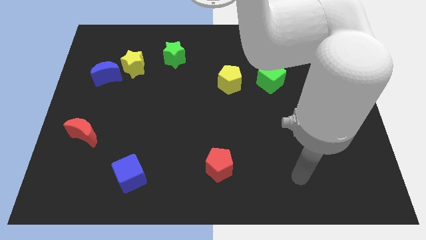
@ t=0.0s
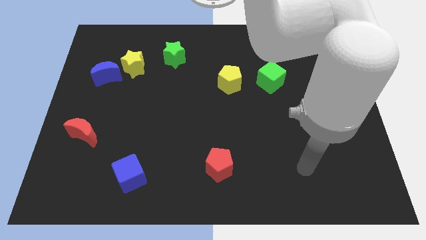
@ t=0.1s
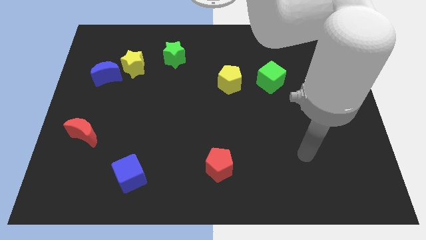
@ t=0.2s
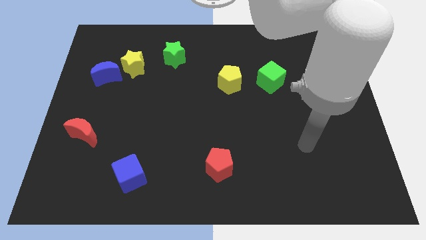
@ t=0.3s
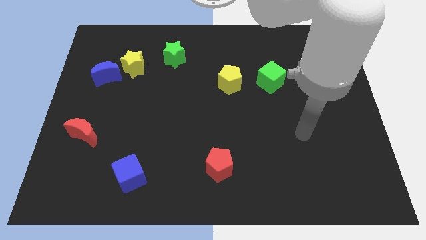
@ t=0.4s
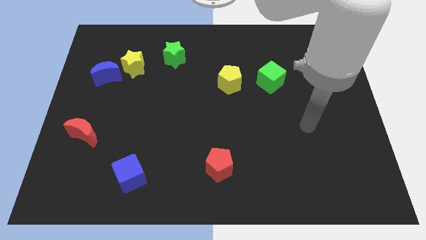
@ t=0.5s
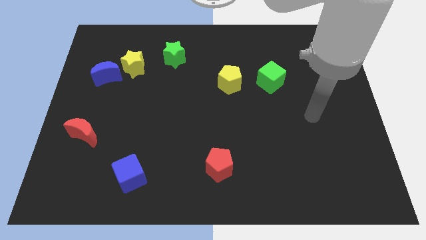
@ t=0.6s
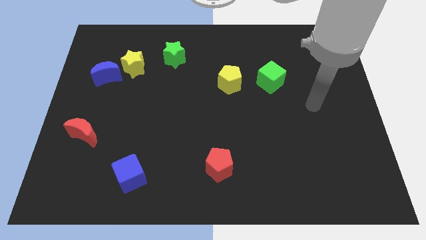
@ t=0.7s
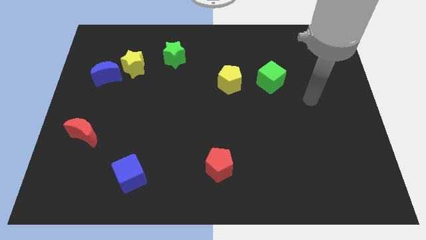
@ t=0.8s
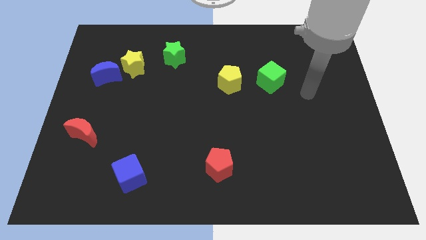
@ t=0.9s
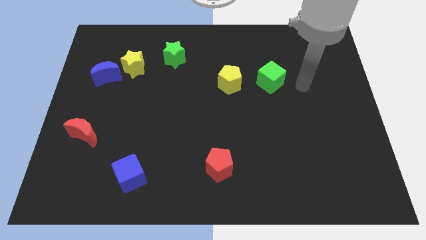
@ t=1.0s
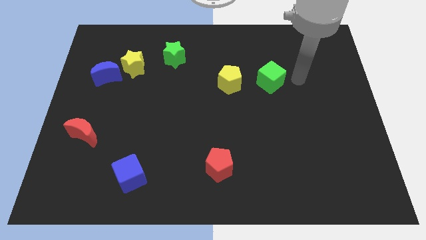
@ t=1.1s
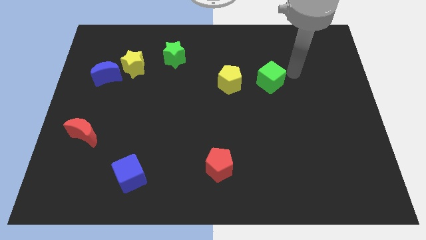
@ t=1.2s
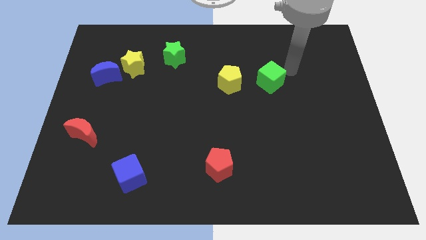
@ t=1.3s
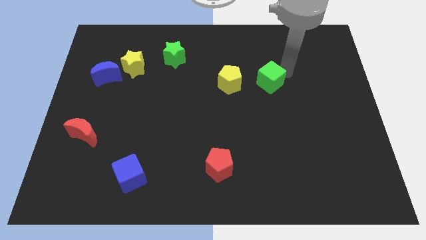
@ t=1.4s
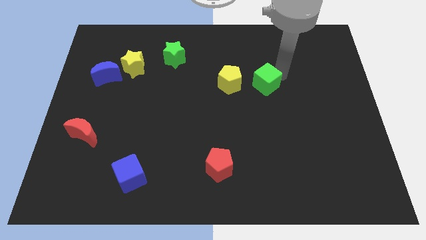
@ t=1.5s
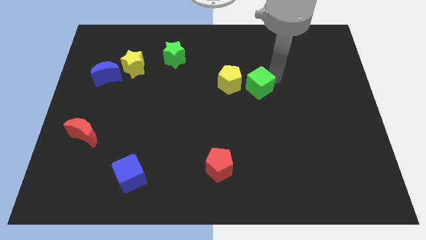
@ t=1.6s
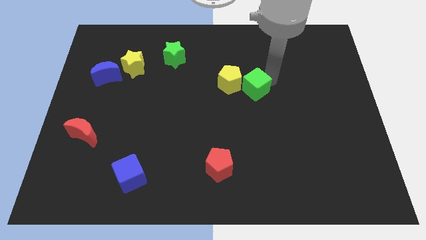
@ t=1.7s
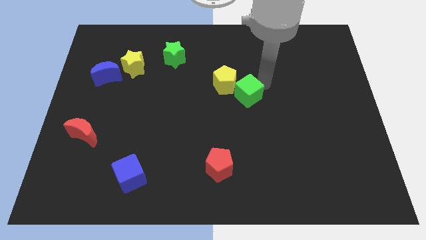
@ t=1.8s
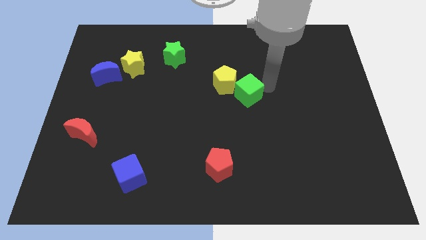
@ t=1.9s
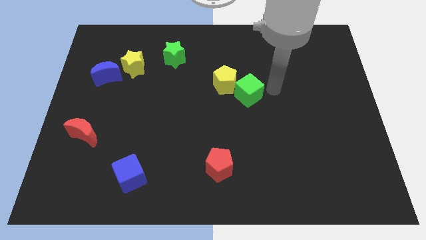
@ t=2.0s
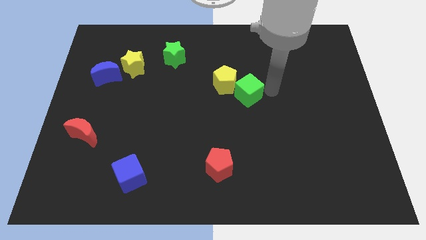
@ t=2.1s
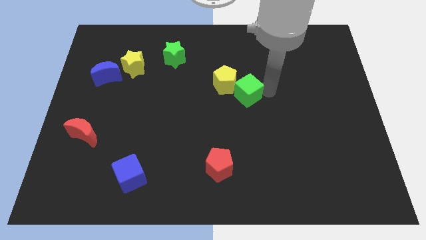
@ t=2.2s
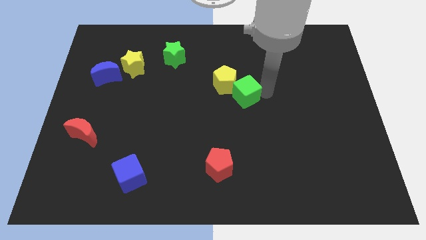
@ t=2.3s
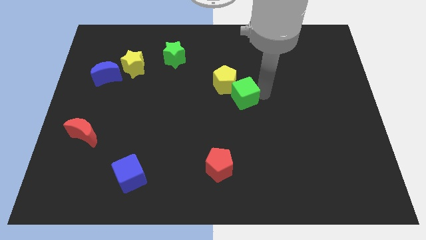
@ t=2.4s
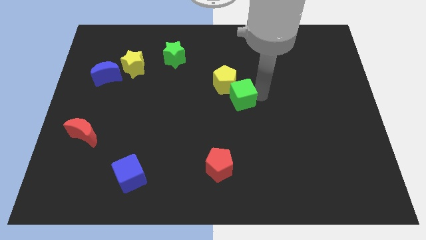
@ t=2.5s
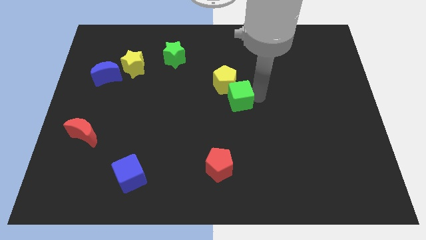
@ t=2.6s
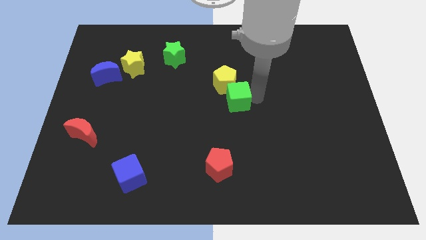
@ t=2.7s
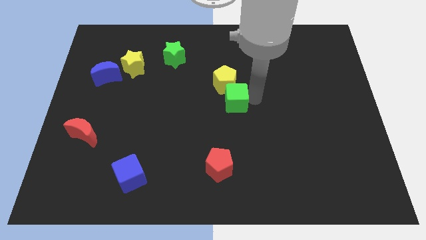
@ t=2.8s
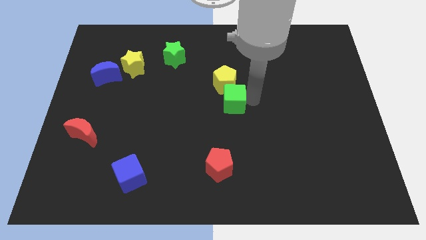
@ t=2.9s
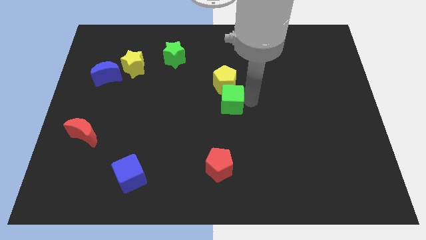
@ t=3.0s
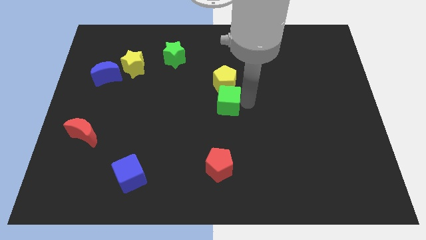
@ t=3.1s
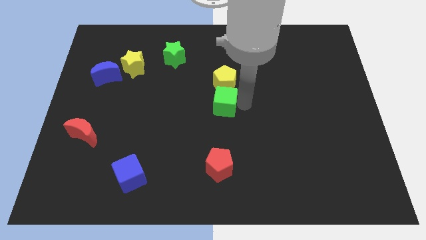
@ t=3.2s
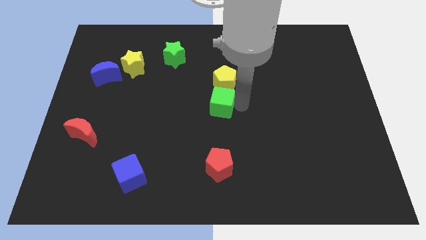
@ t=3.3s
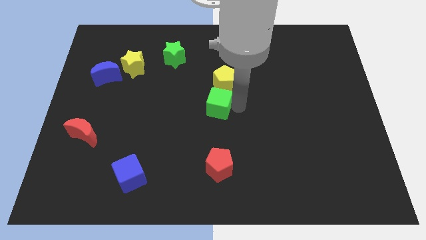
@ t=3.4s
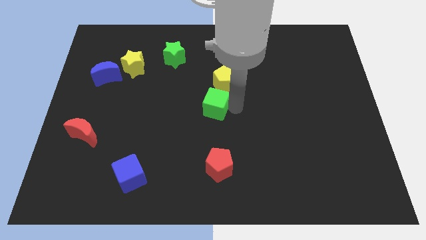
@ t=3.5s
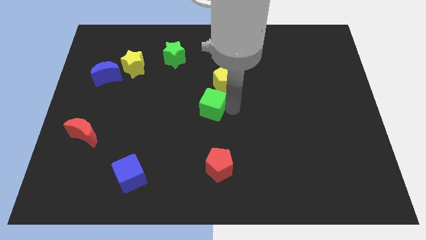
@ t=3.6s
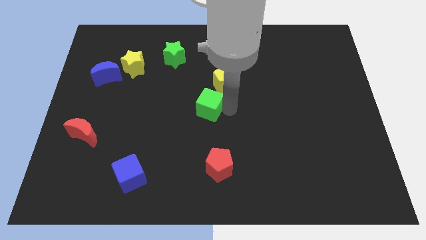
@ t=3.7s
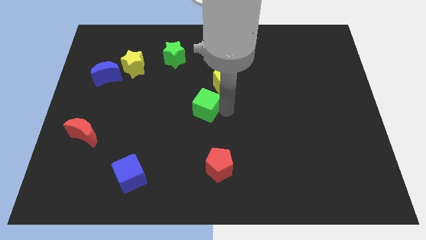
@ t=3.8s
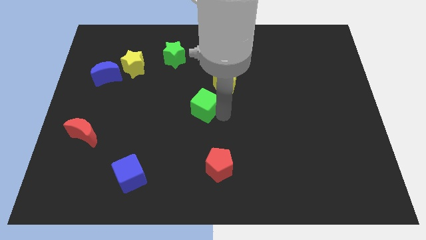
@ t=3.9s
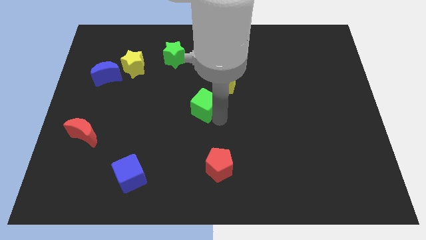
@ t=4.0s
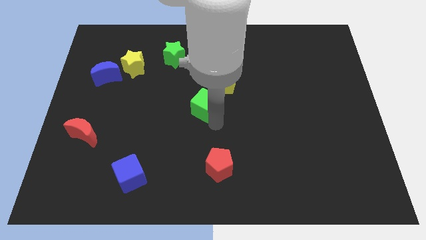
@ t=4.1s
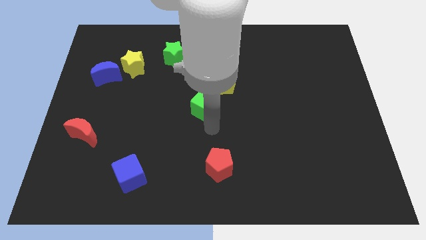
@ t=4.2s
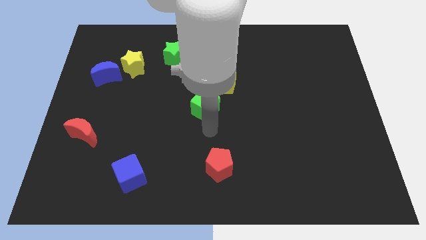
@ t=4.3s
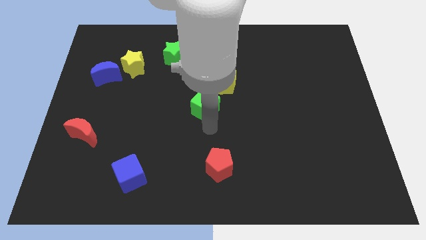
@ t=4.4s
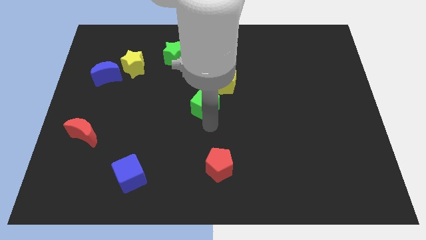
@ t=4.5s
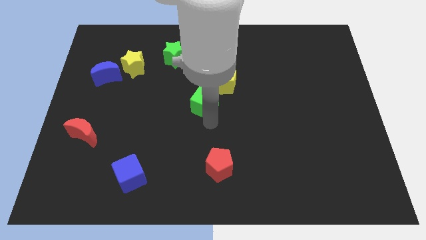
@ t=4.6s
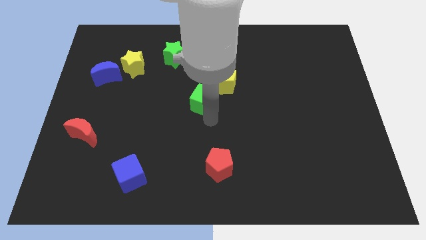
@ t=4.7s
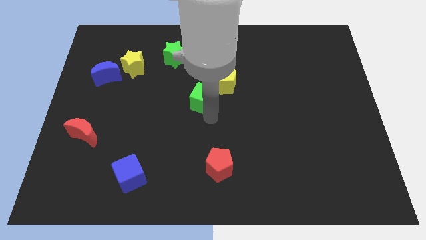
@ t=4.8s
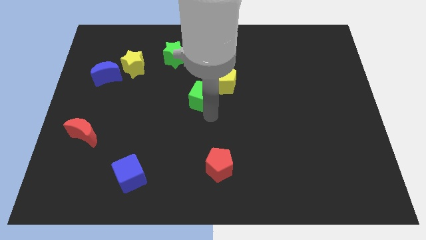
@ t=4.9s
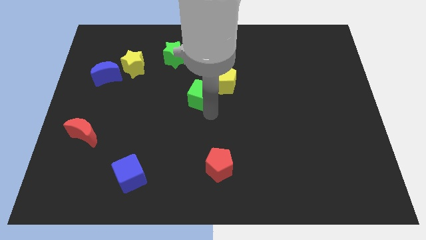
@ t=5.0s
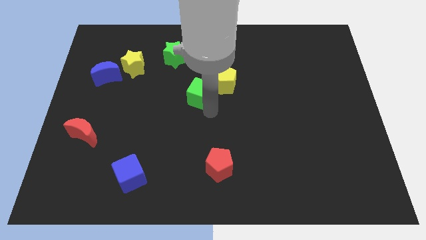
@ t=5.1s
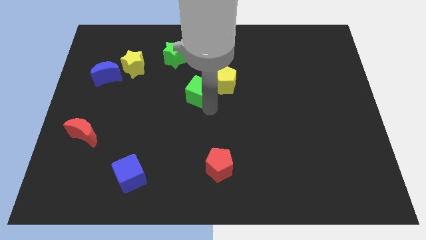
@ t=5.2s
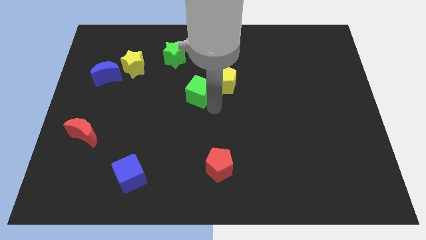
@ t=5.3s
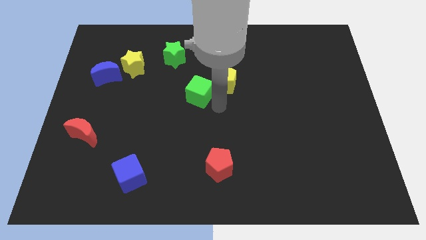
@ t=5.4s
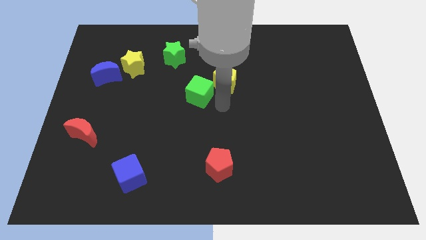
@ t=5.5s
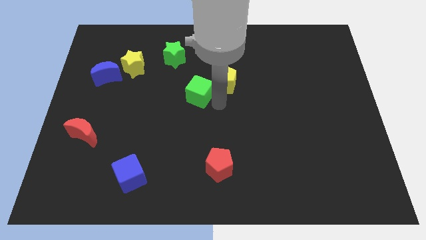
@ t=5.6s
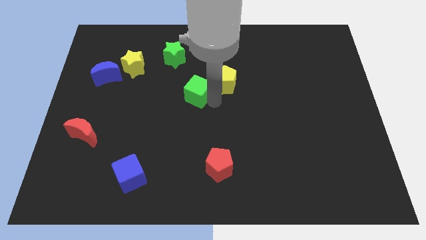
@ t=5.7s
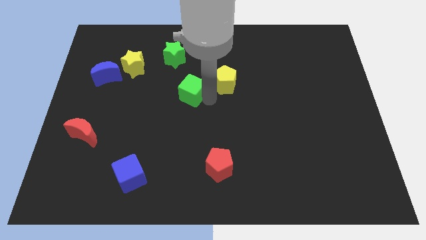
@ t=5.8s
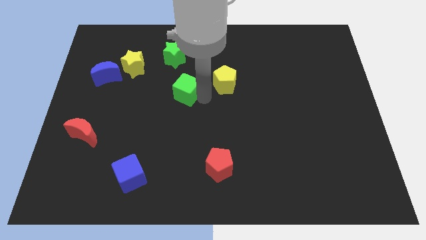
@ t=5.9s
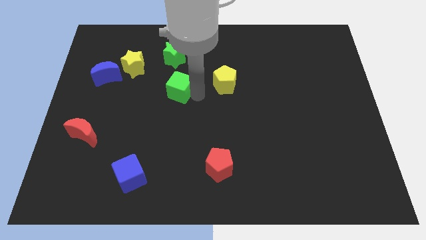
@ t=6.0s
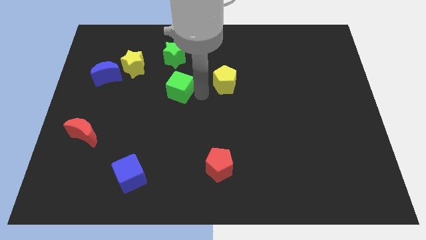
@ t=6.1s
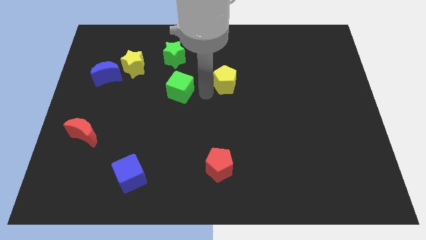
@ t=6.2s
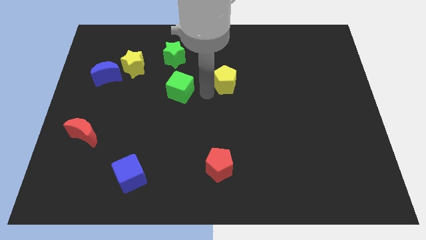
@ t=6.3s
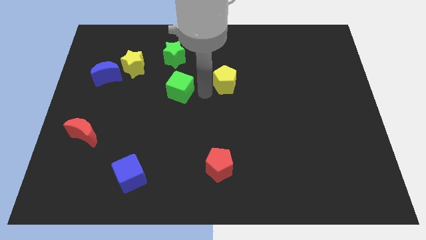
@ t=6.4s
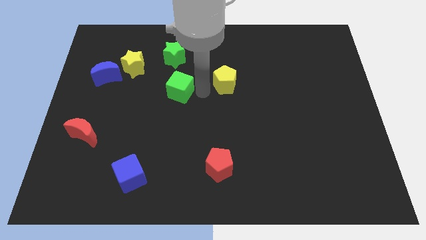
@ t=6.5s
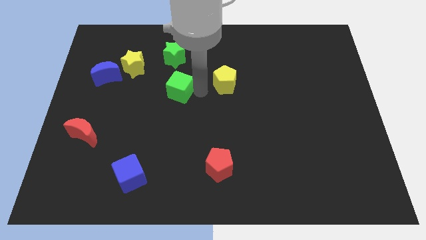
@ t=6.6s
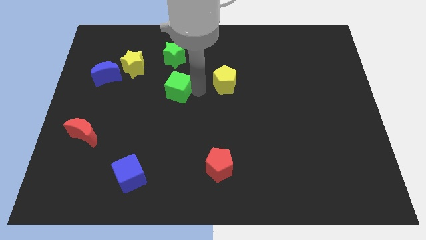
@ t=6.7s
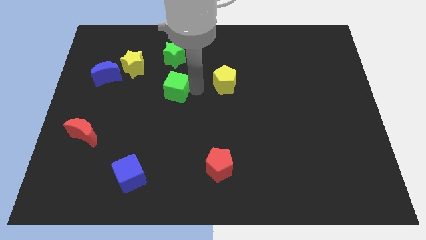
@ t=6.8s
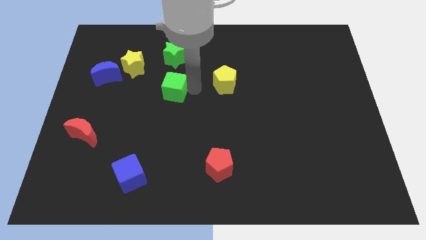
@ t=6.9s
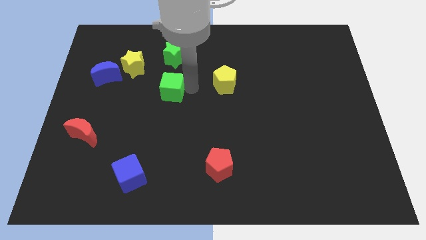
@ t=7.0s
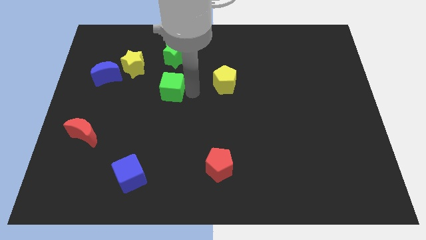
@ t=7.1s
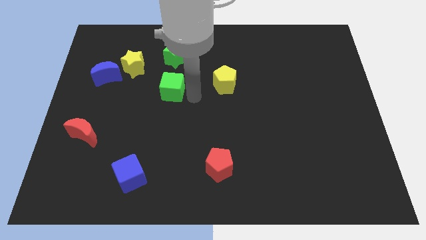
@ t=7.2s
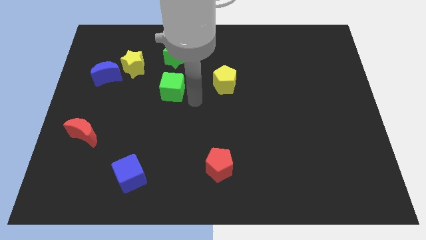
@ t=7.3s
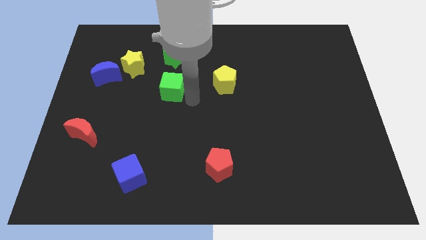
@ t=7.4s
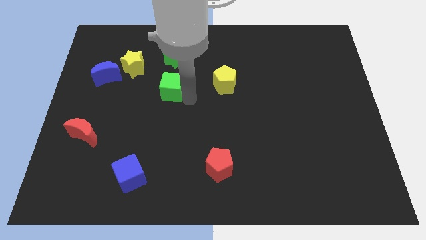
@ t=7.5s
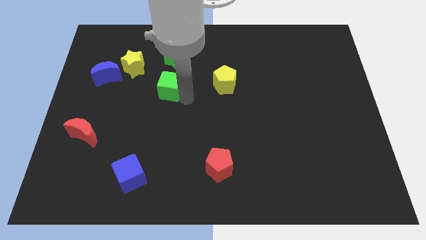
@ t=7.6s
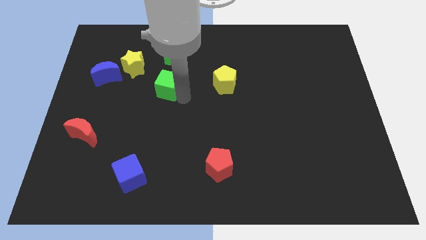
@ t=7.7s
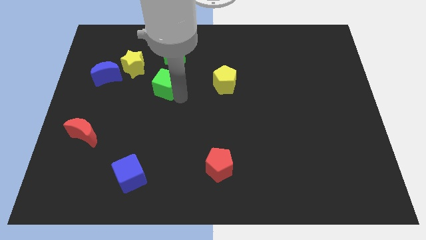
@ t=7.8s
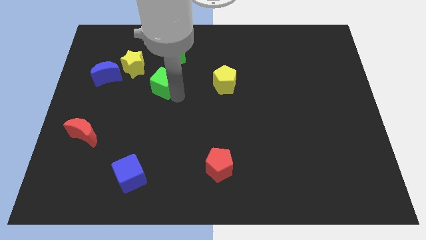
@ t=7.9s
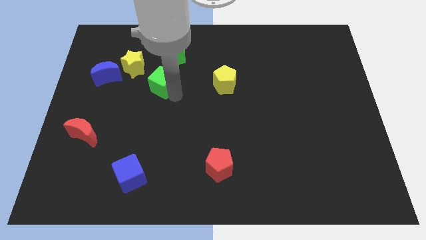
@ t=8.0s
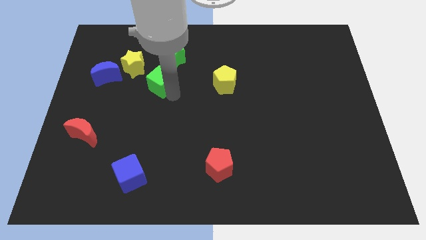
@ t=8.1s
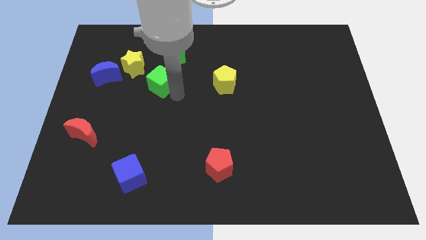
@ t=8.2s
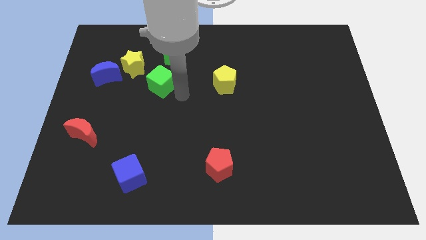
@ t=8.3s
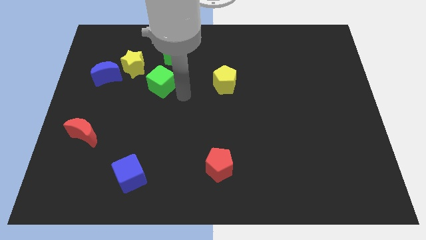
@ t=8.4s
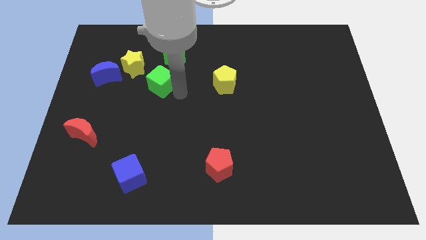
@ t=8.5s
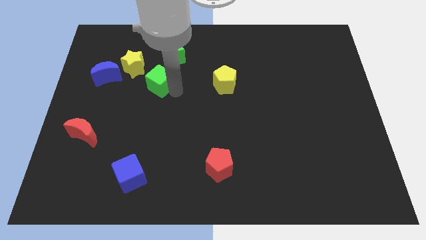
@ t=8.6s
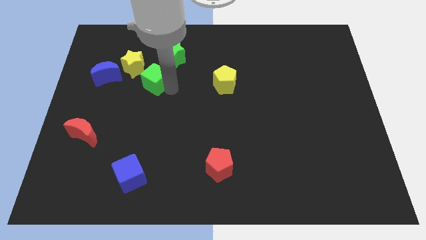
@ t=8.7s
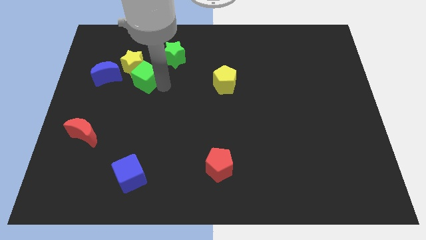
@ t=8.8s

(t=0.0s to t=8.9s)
slide the green cube next to the yellow star
